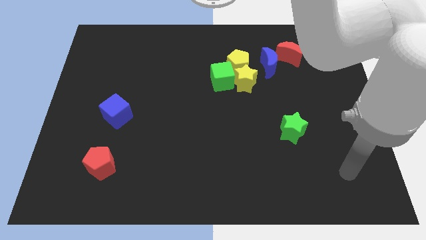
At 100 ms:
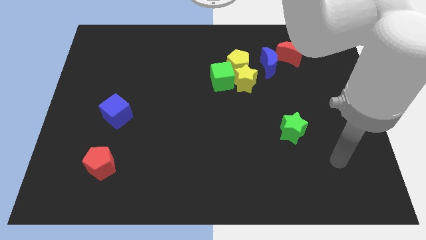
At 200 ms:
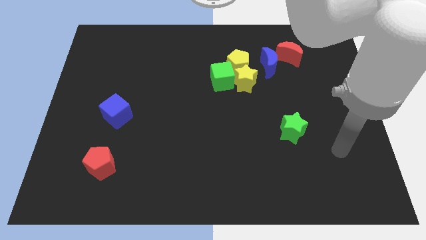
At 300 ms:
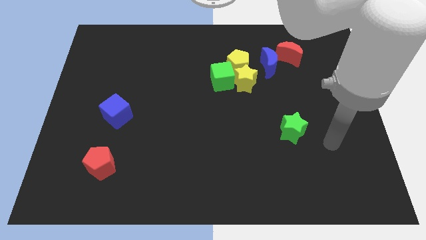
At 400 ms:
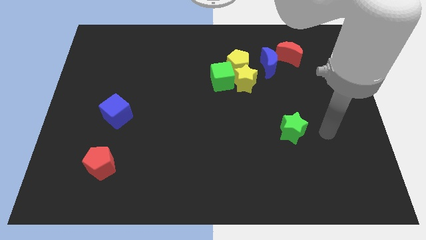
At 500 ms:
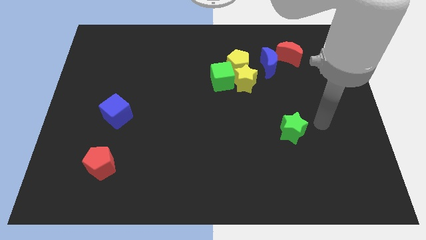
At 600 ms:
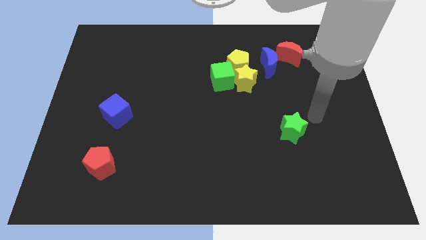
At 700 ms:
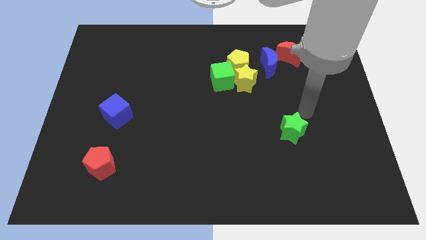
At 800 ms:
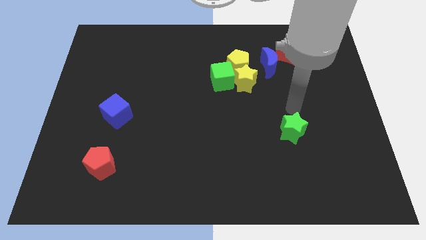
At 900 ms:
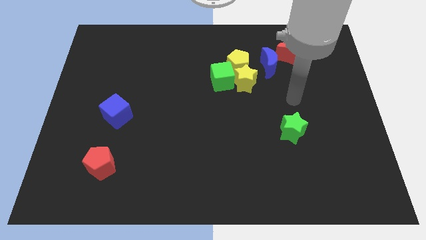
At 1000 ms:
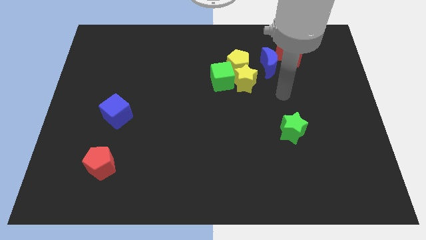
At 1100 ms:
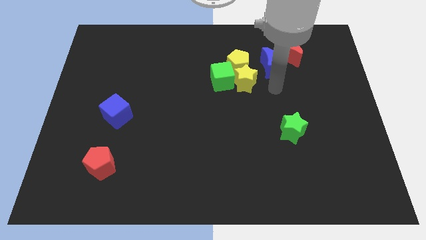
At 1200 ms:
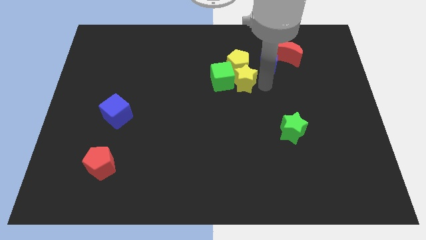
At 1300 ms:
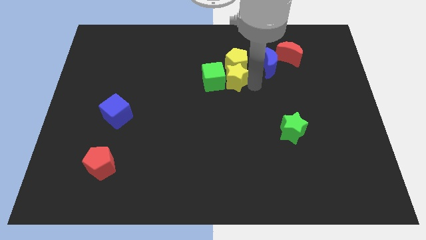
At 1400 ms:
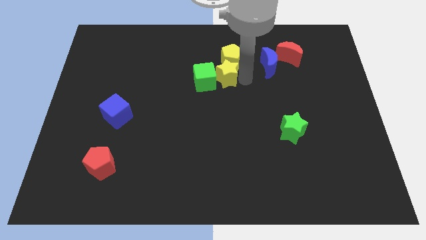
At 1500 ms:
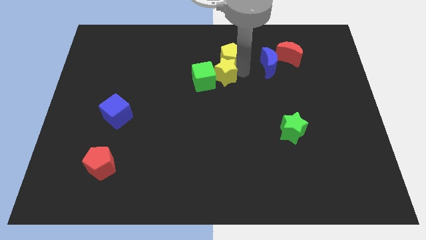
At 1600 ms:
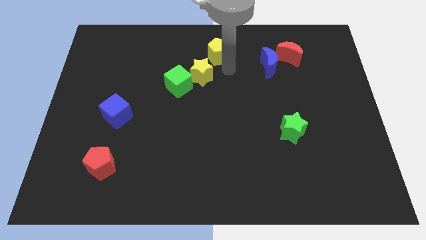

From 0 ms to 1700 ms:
move the green cube away from the yellow star and yellow pentagon

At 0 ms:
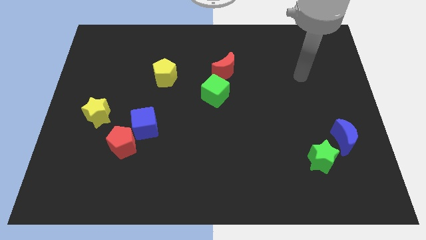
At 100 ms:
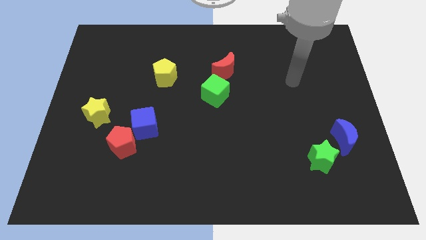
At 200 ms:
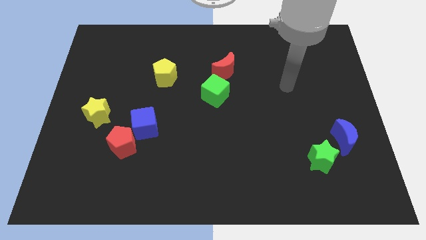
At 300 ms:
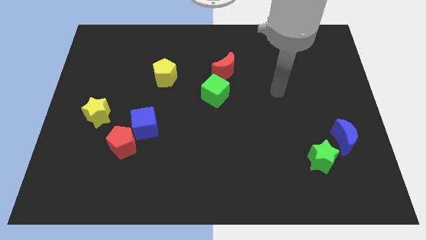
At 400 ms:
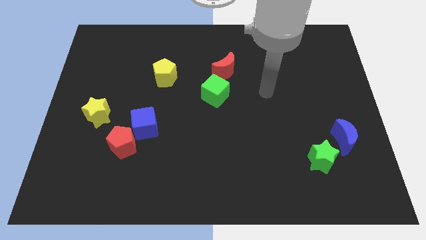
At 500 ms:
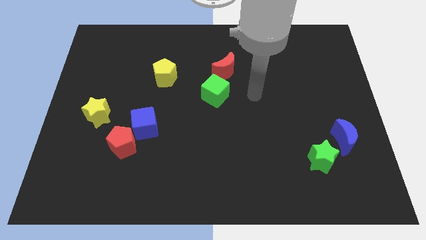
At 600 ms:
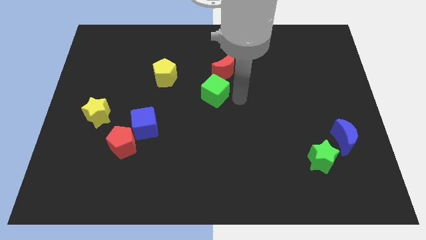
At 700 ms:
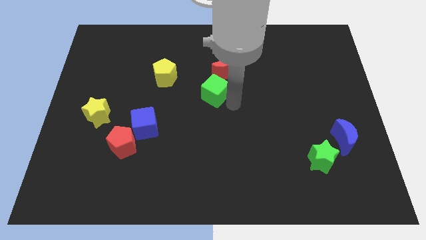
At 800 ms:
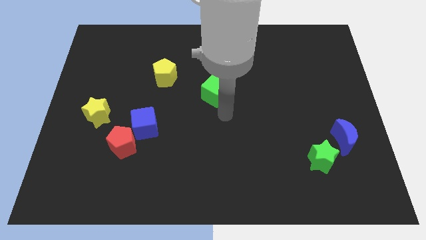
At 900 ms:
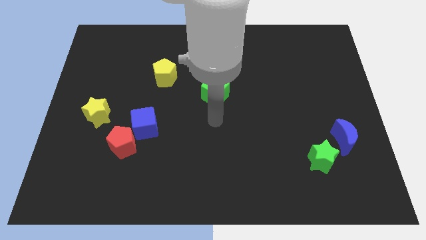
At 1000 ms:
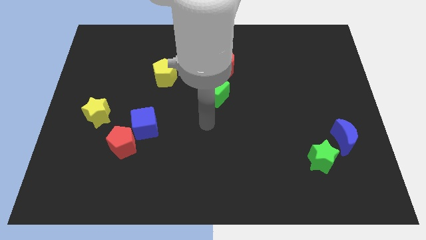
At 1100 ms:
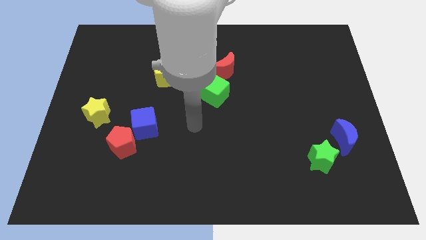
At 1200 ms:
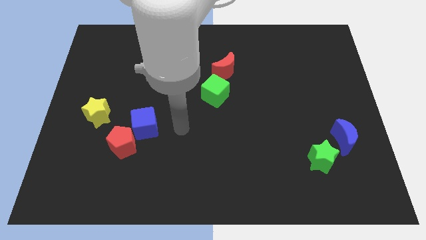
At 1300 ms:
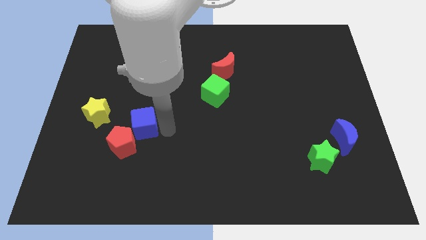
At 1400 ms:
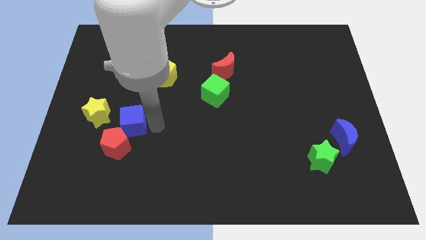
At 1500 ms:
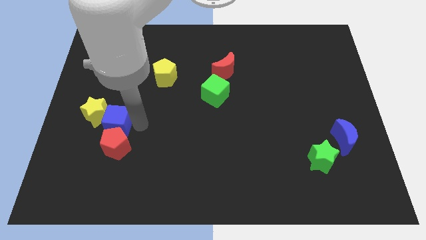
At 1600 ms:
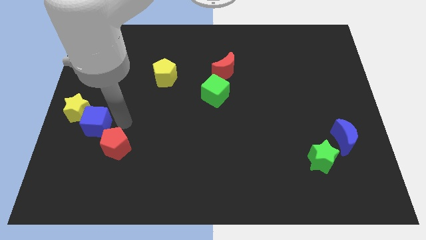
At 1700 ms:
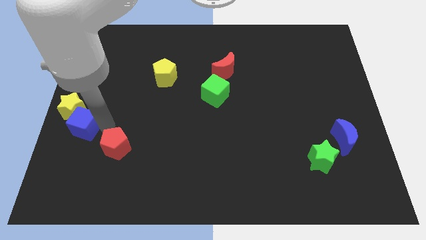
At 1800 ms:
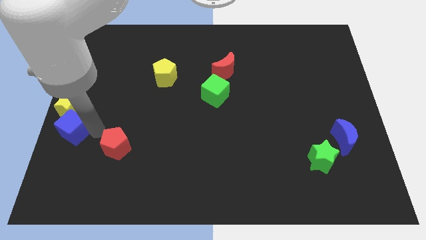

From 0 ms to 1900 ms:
move the red pentagon away from the blue cube

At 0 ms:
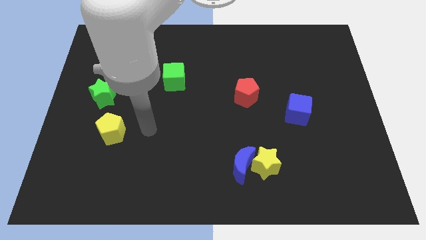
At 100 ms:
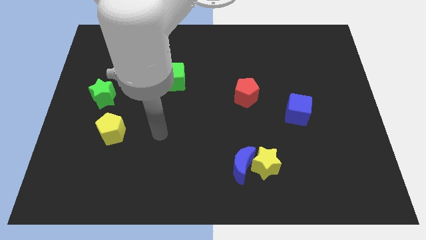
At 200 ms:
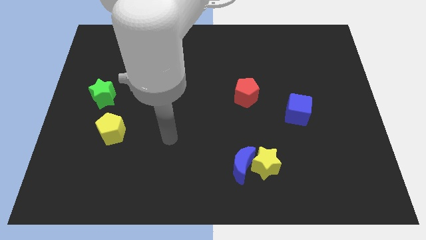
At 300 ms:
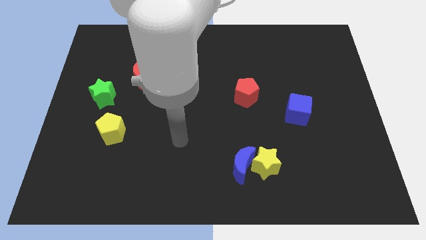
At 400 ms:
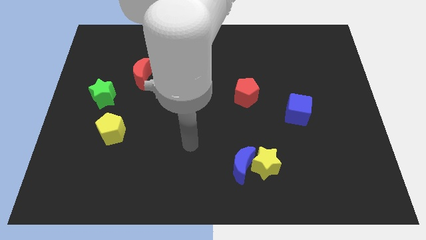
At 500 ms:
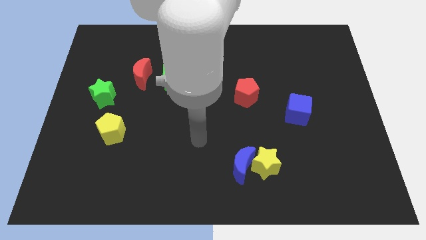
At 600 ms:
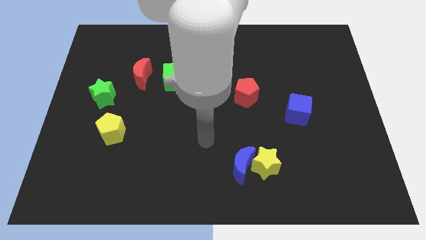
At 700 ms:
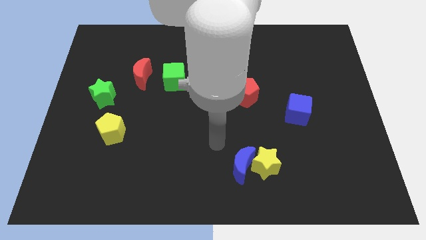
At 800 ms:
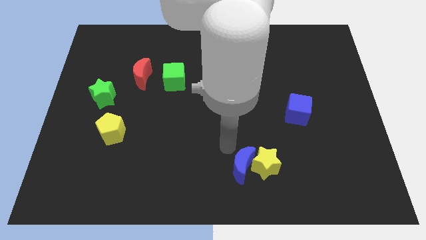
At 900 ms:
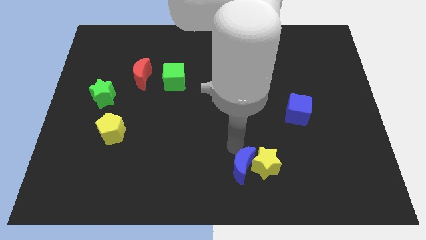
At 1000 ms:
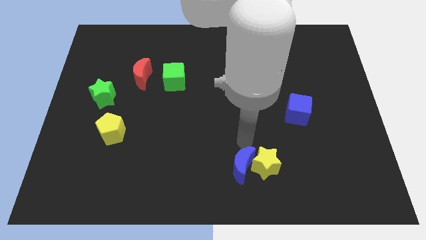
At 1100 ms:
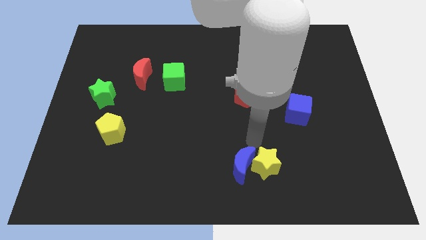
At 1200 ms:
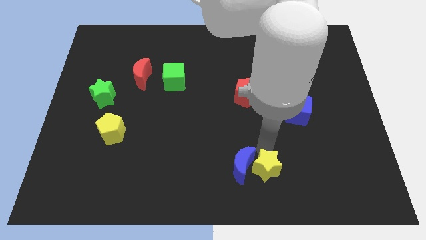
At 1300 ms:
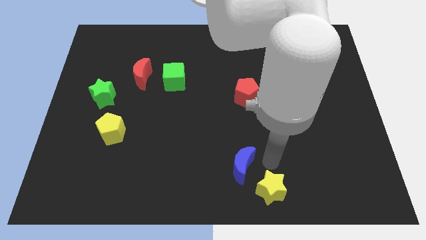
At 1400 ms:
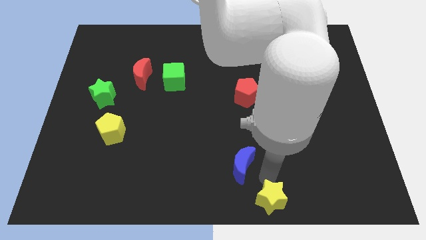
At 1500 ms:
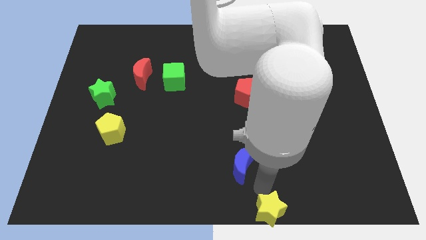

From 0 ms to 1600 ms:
pull the blue moon apart from the yellow star

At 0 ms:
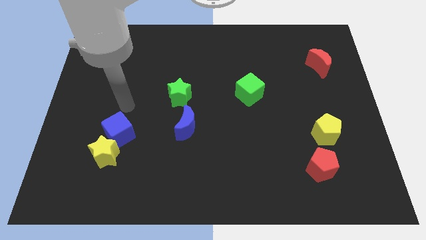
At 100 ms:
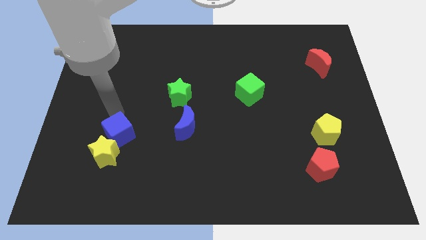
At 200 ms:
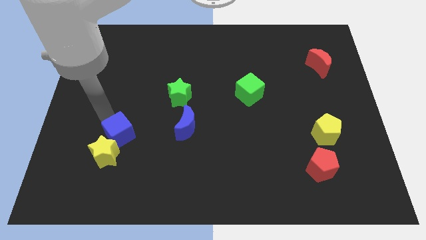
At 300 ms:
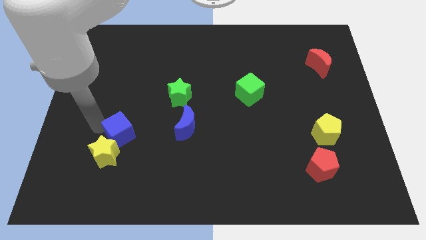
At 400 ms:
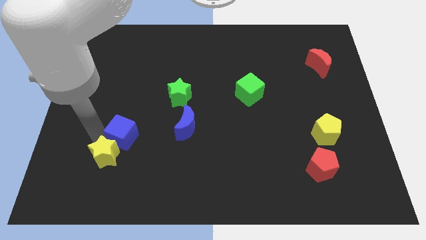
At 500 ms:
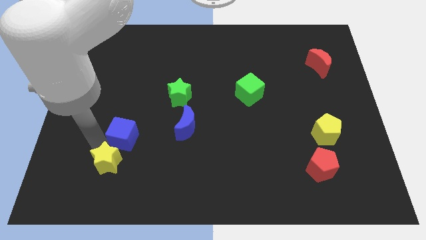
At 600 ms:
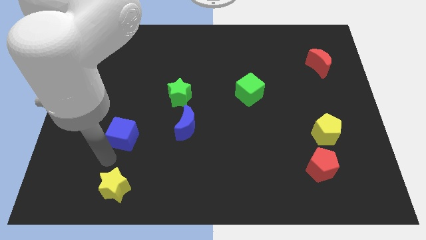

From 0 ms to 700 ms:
separate the blue cube from the yellow star

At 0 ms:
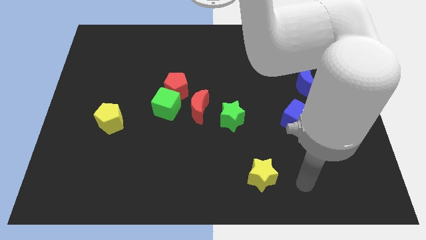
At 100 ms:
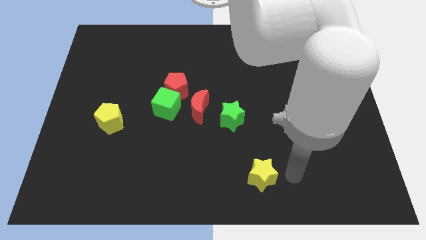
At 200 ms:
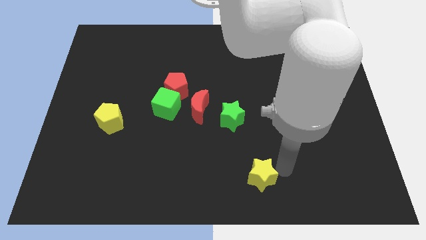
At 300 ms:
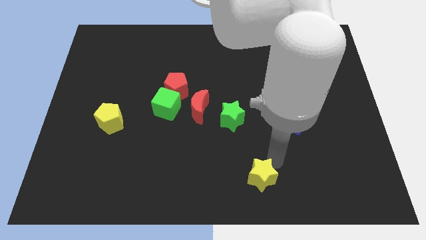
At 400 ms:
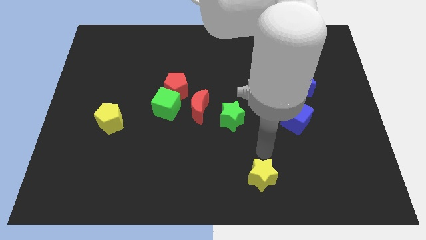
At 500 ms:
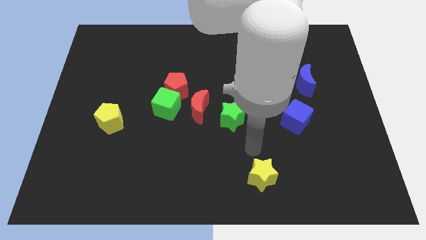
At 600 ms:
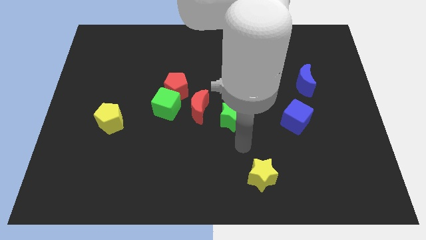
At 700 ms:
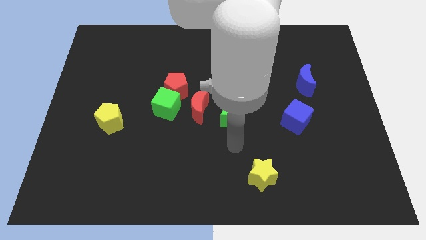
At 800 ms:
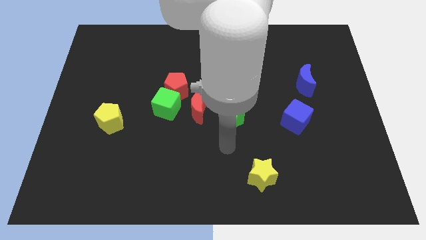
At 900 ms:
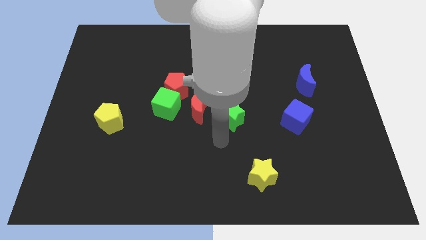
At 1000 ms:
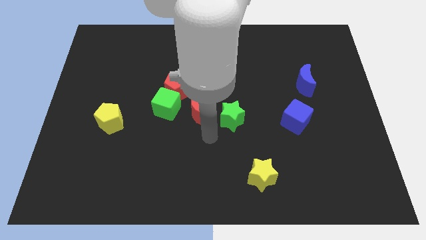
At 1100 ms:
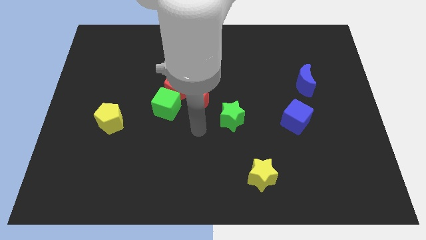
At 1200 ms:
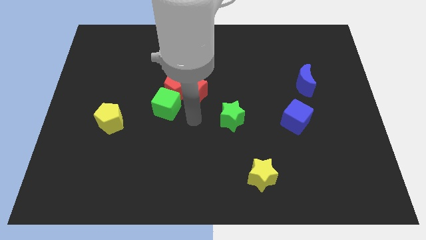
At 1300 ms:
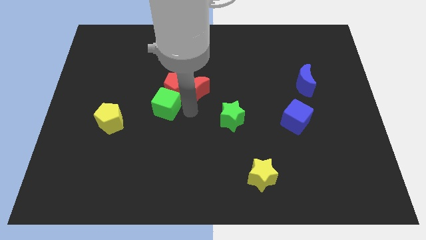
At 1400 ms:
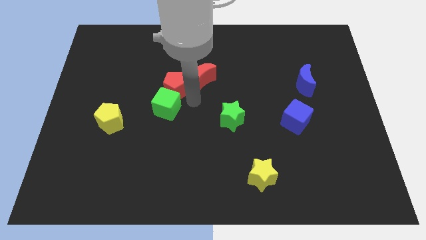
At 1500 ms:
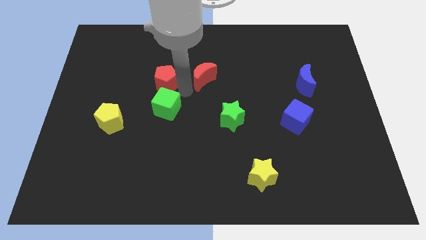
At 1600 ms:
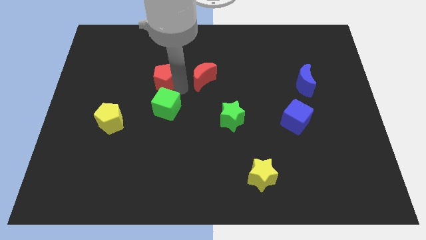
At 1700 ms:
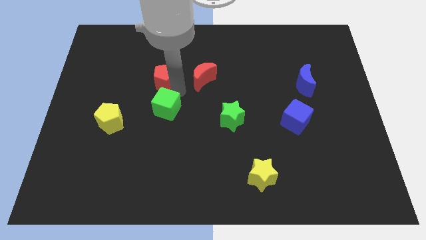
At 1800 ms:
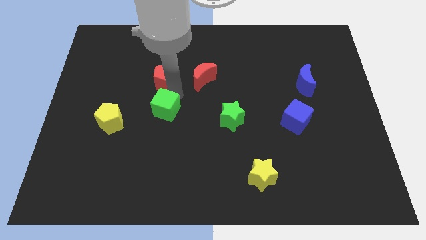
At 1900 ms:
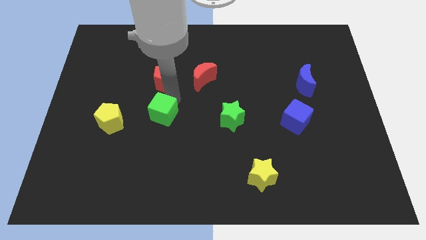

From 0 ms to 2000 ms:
pull the green cube apart from the red pentagon and red moon

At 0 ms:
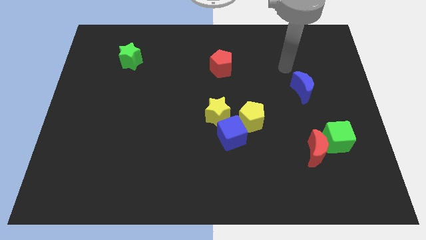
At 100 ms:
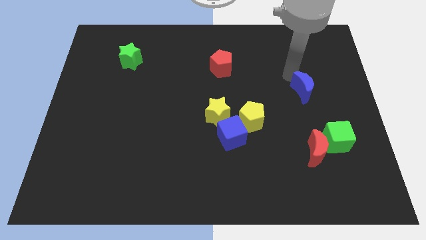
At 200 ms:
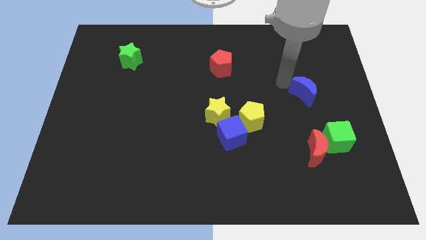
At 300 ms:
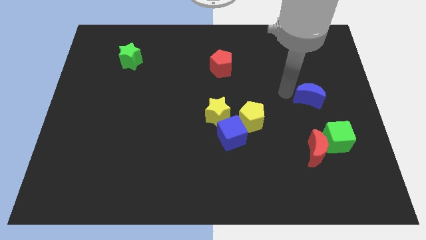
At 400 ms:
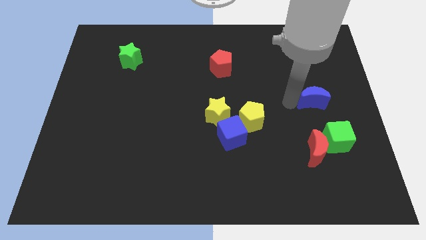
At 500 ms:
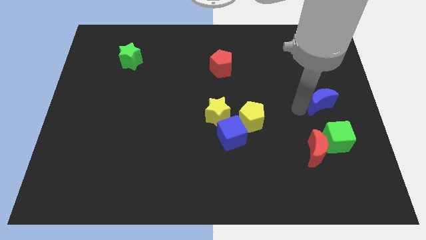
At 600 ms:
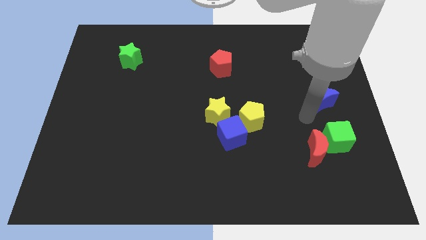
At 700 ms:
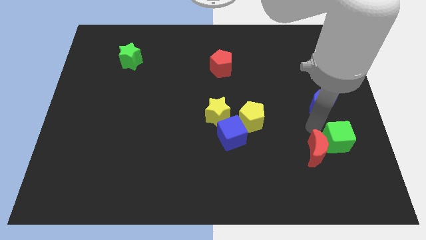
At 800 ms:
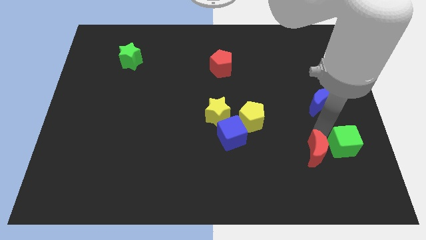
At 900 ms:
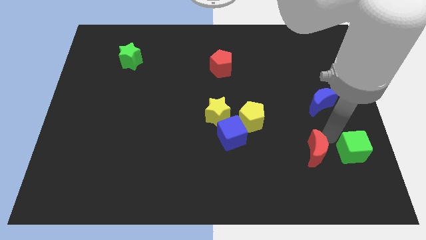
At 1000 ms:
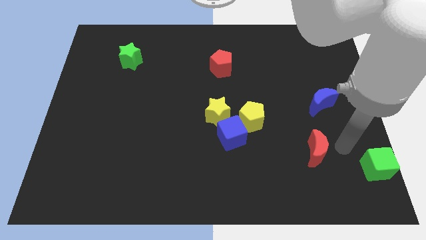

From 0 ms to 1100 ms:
pull the red moon apart from the green cube

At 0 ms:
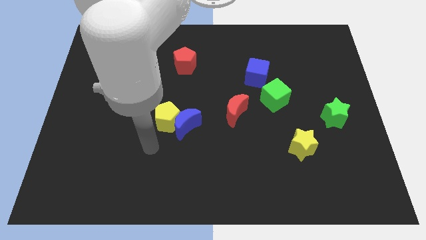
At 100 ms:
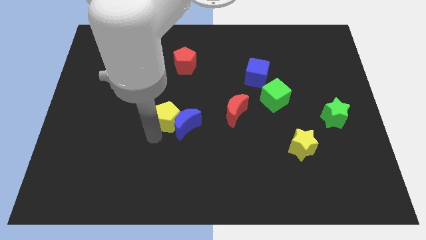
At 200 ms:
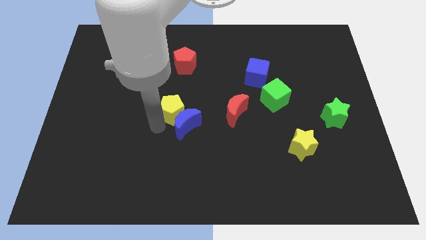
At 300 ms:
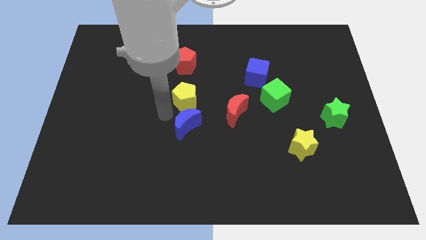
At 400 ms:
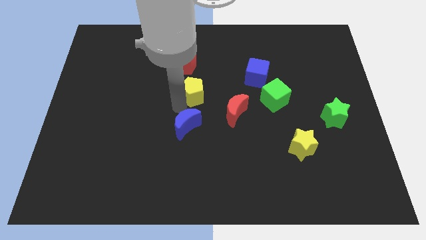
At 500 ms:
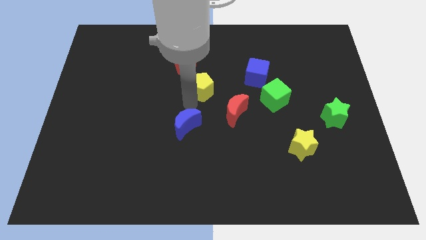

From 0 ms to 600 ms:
move the blue moon away from the yellow pentagon
